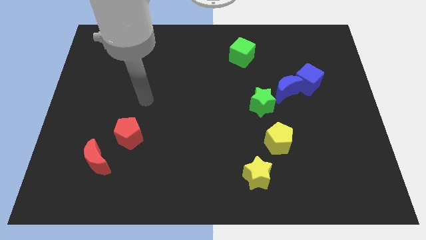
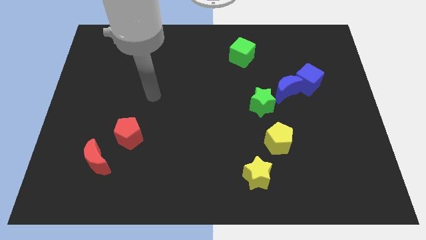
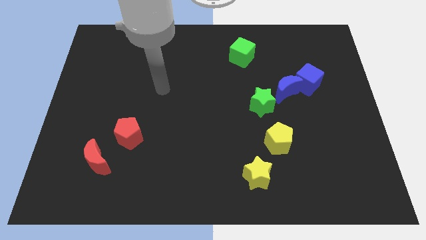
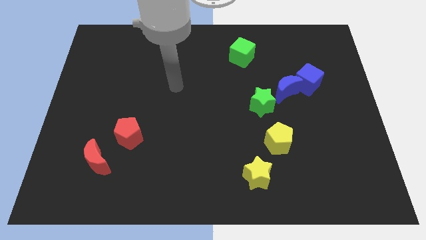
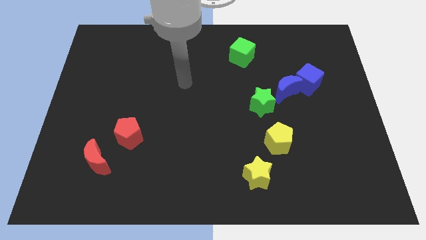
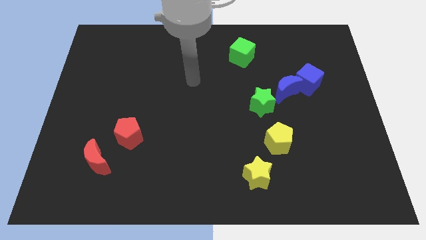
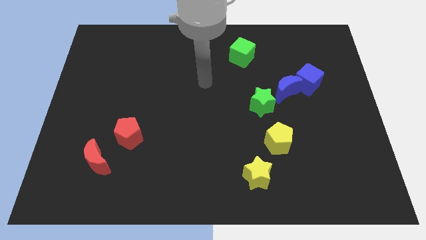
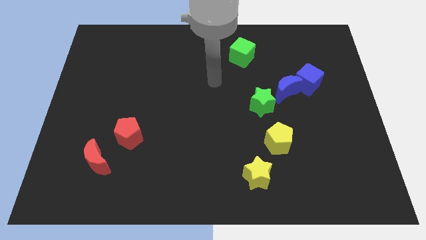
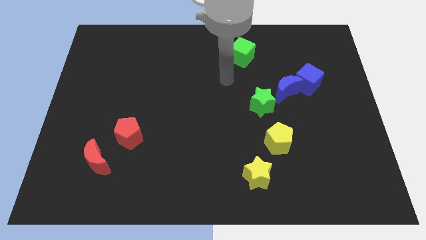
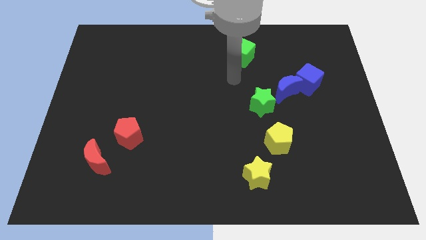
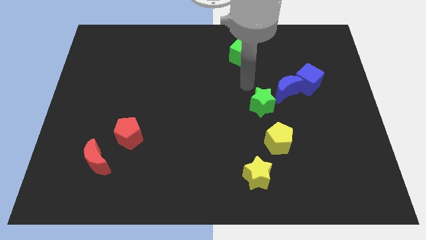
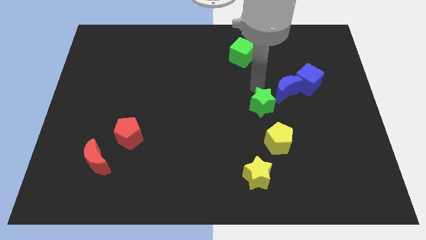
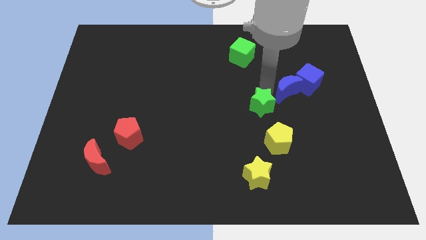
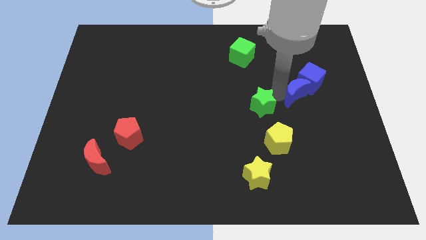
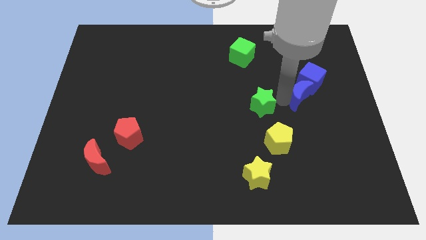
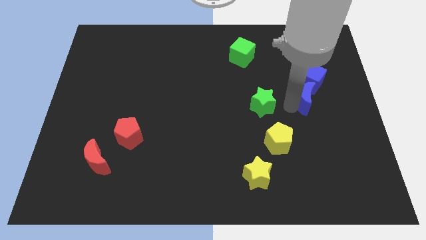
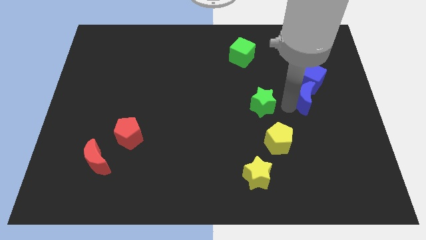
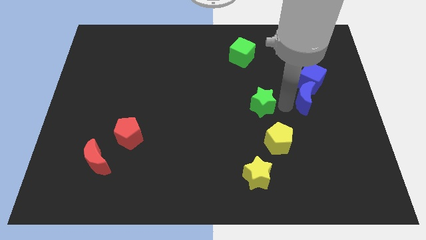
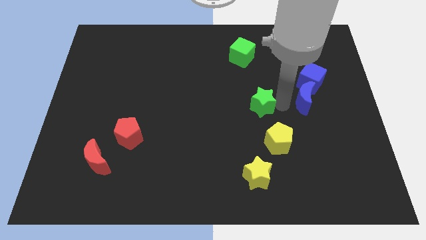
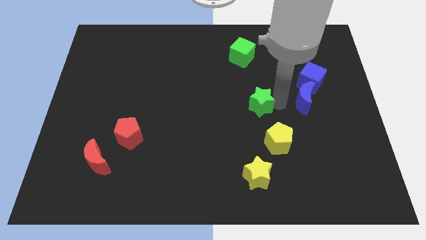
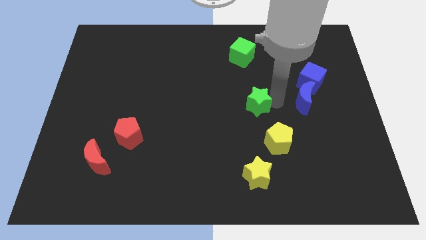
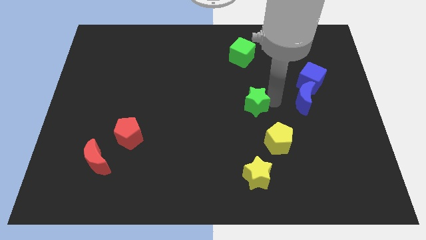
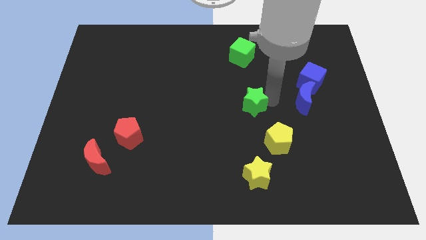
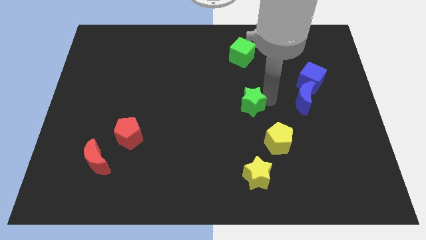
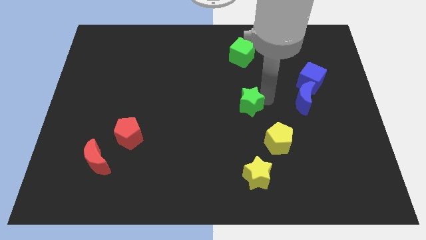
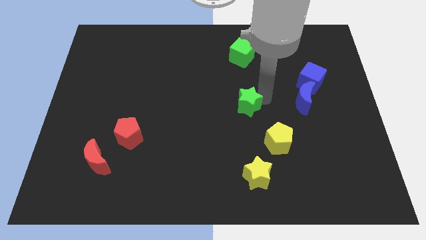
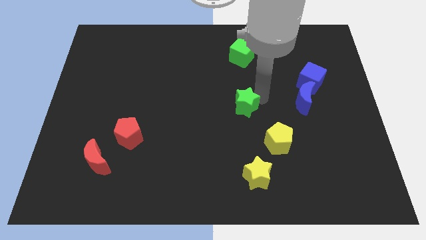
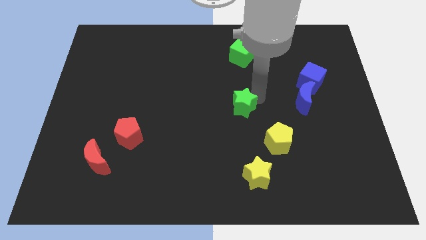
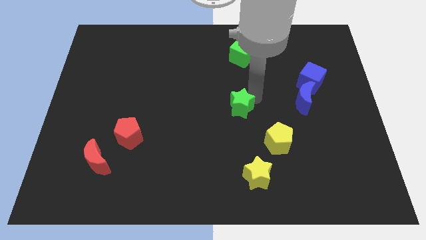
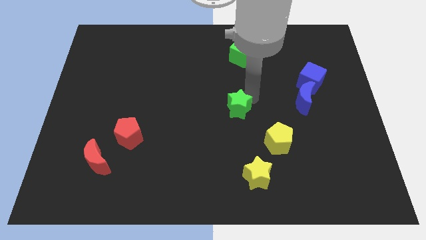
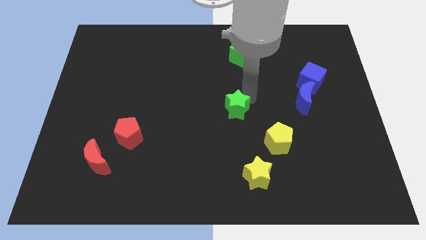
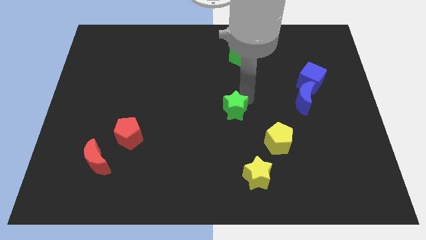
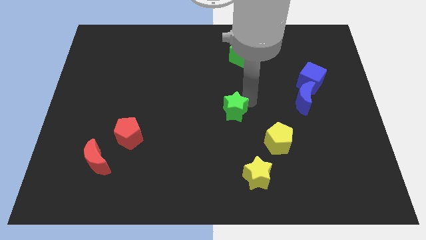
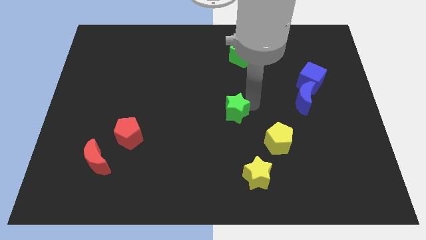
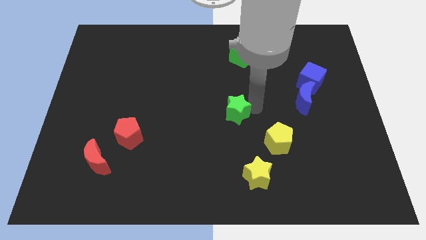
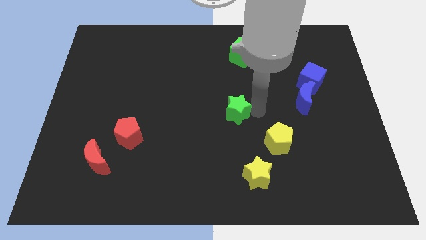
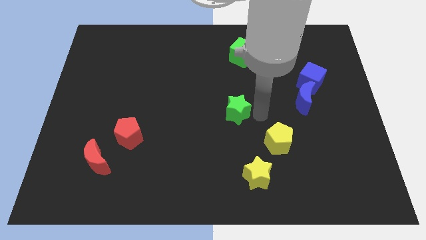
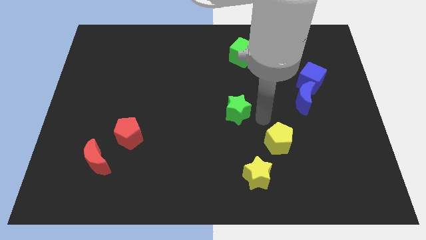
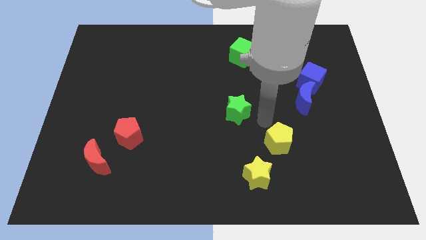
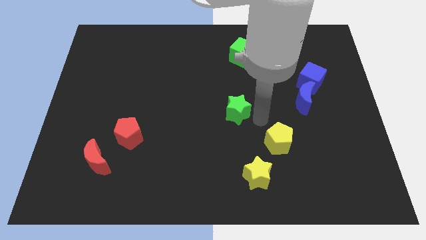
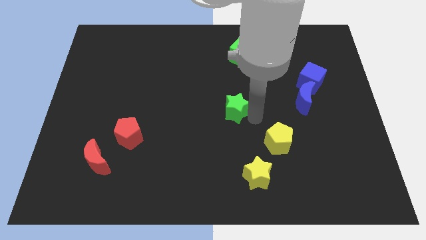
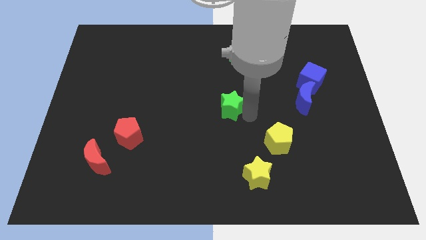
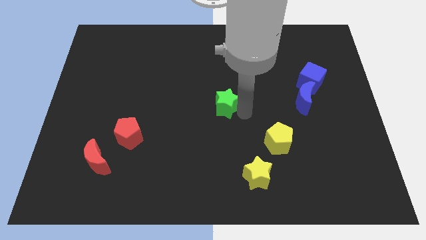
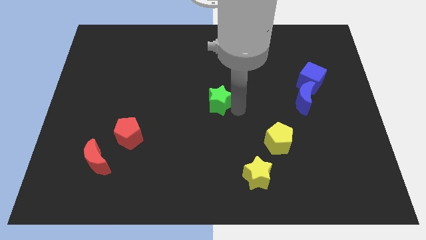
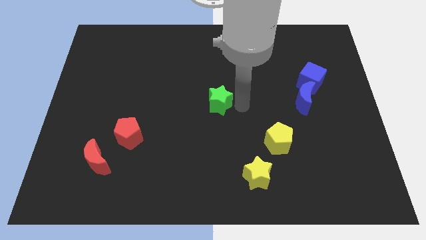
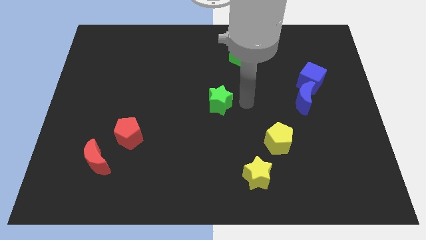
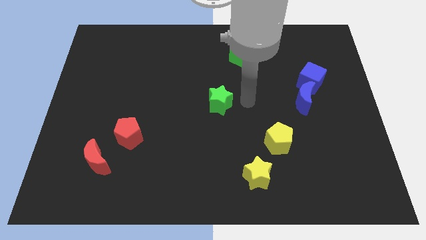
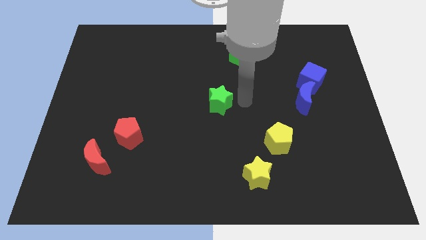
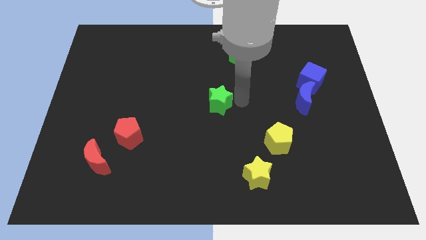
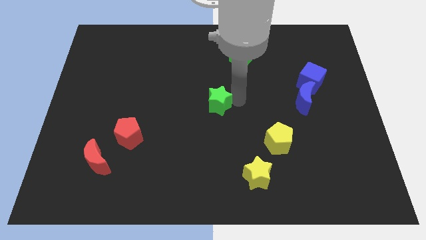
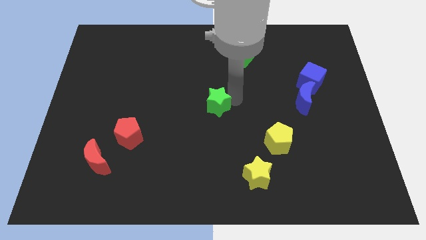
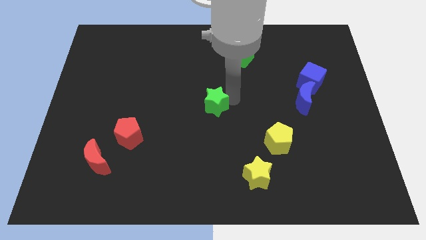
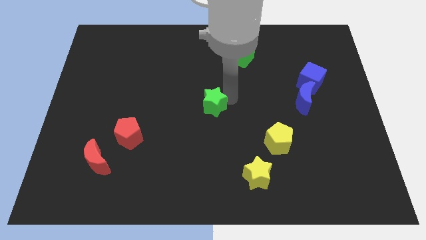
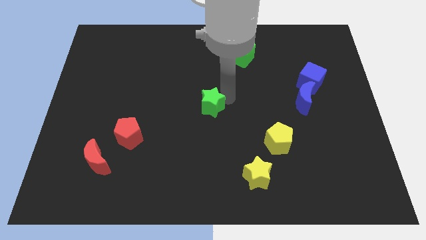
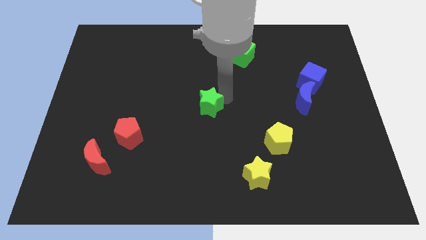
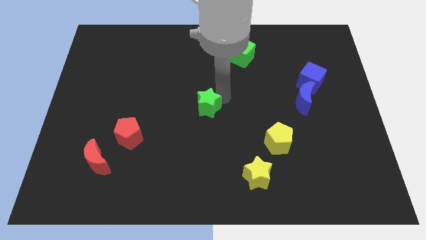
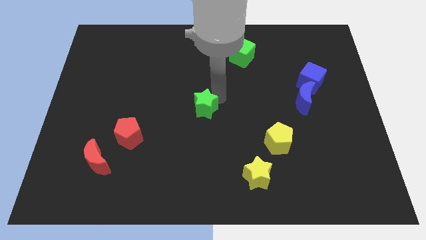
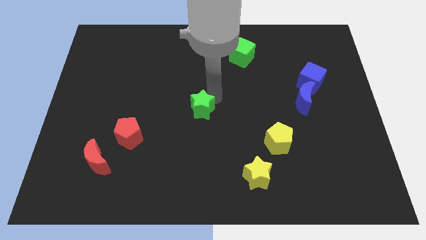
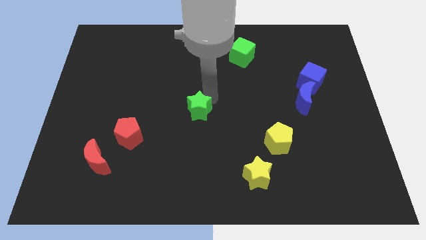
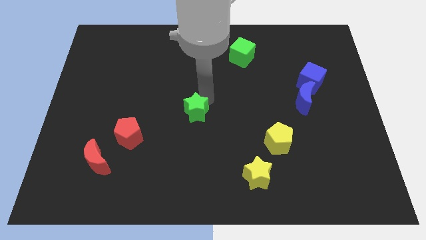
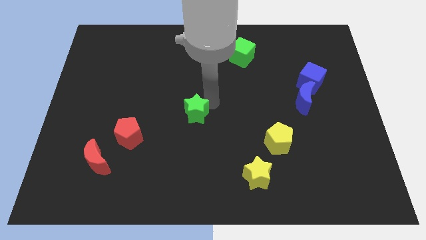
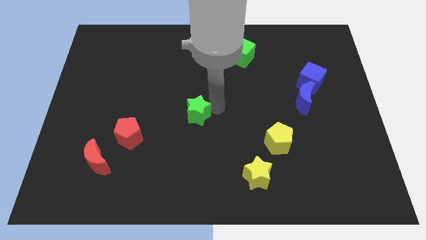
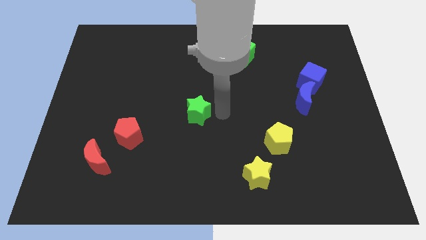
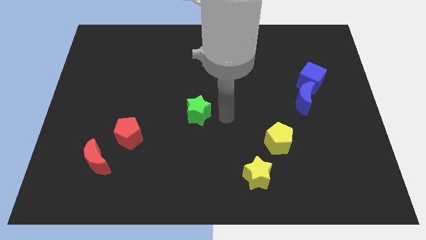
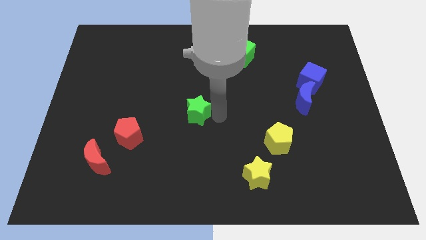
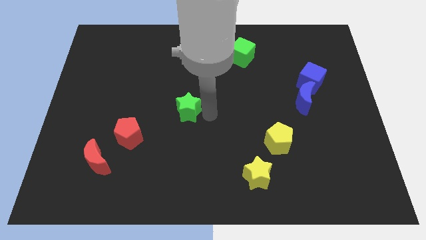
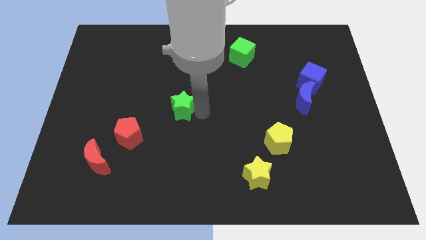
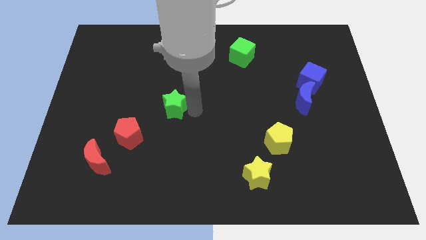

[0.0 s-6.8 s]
move the green star to the left

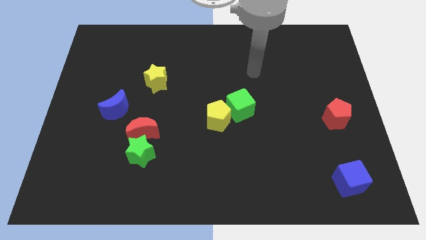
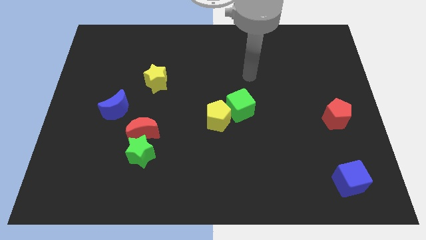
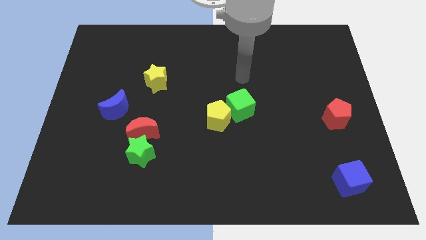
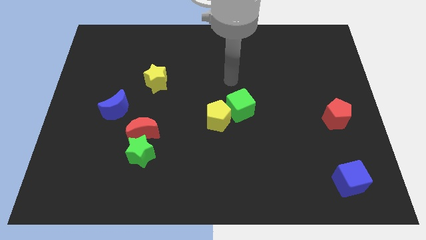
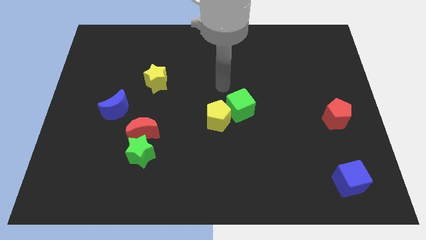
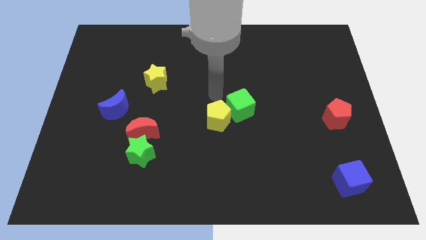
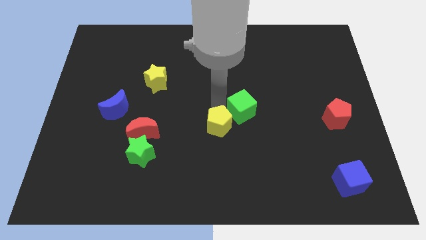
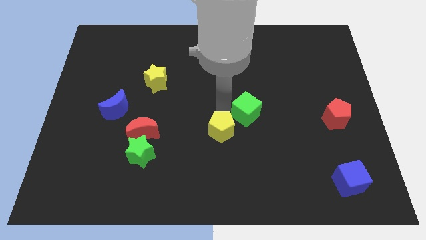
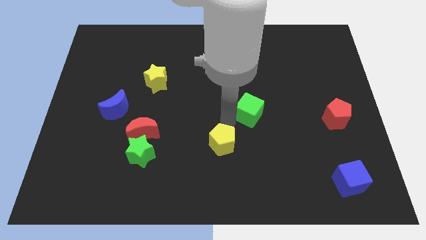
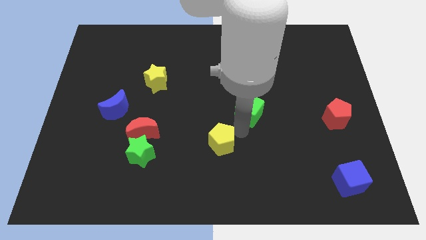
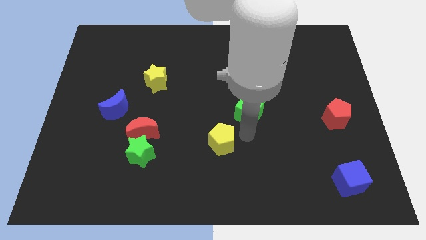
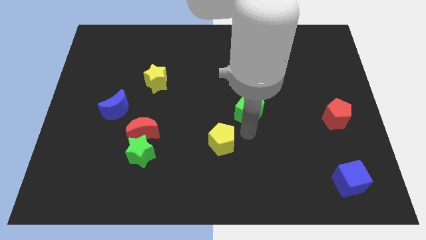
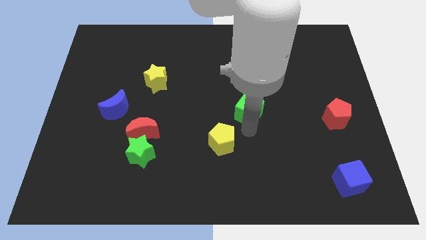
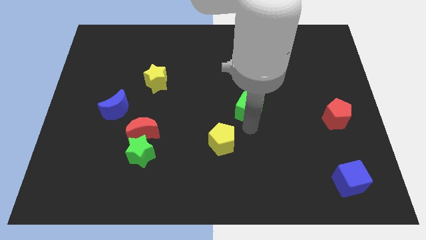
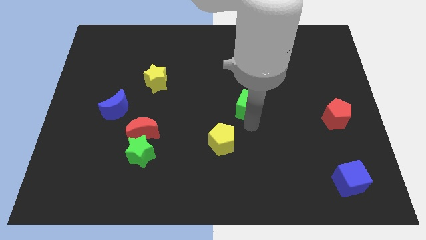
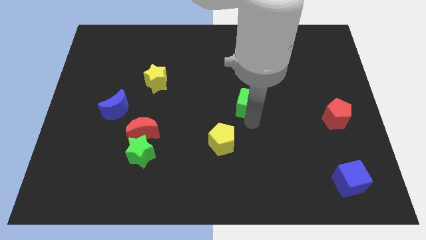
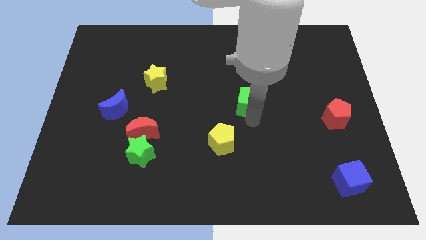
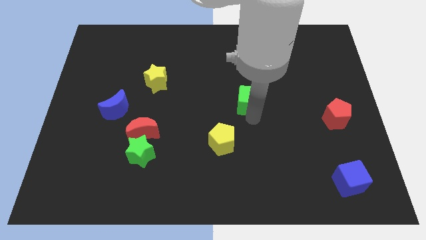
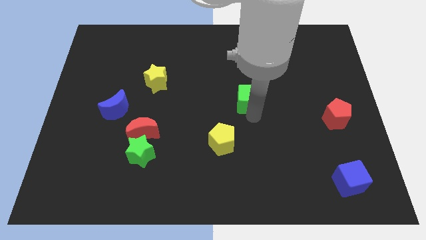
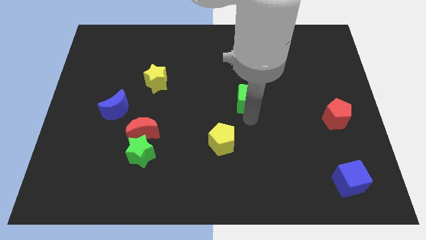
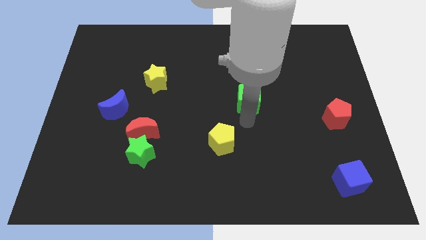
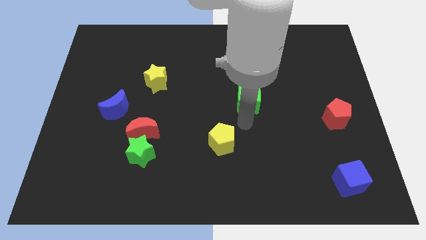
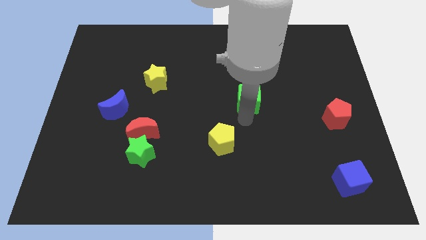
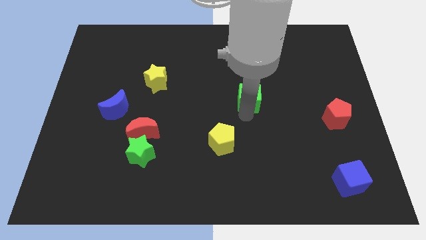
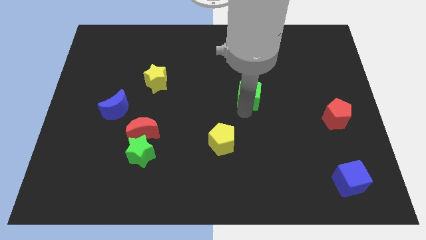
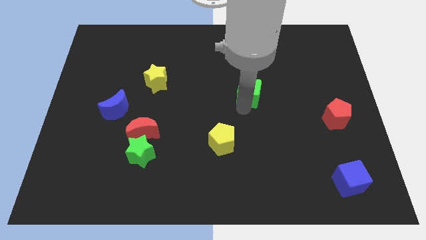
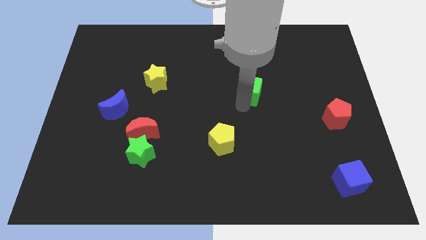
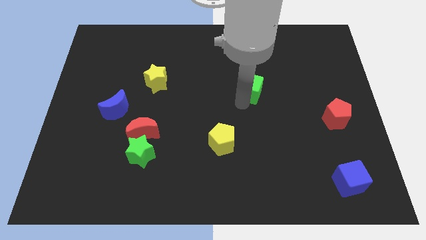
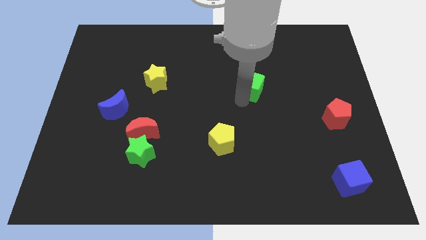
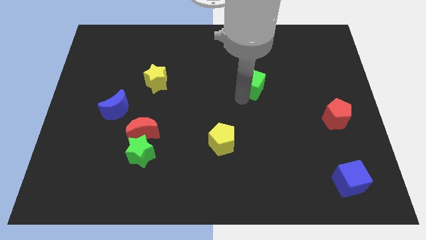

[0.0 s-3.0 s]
slightly move the green cube diagonally up and right
